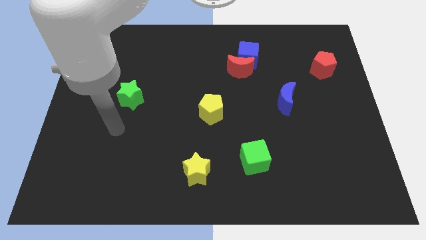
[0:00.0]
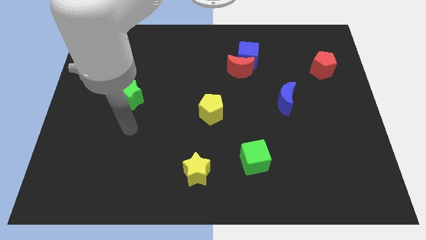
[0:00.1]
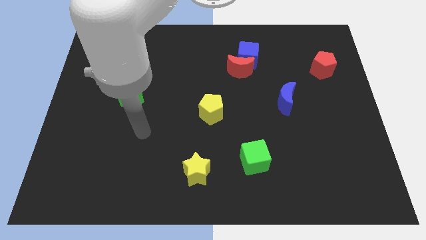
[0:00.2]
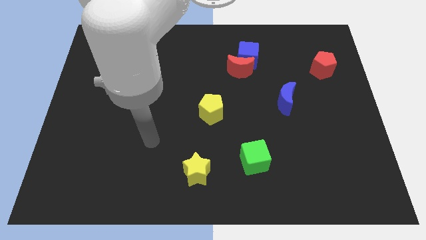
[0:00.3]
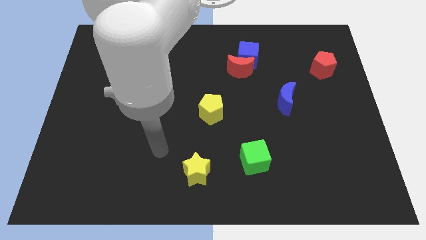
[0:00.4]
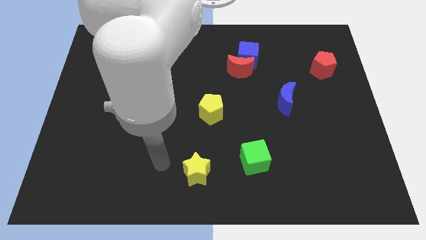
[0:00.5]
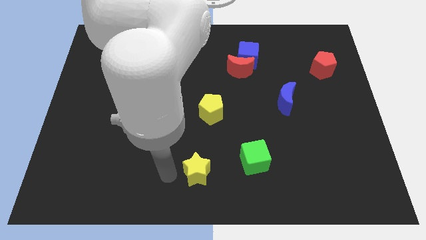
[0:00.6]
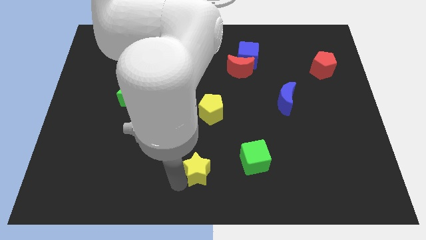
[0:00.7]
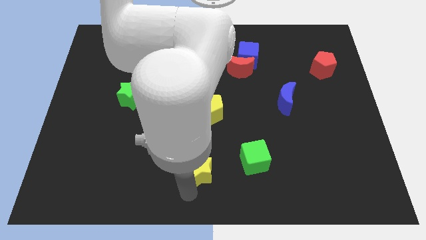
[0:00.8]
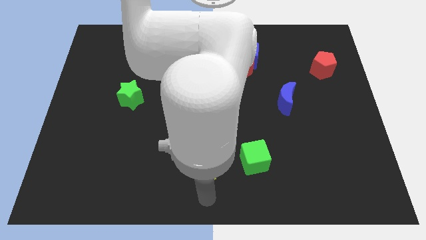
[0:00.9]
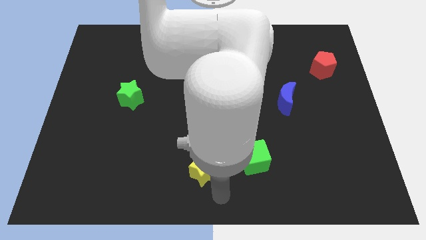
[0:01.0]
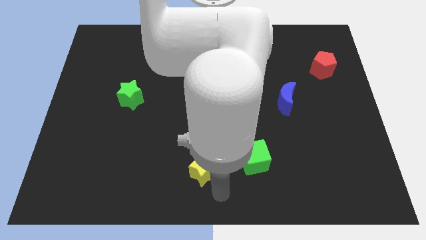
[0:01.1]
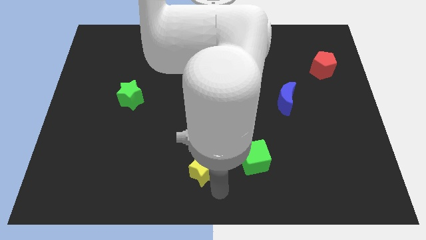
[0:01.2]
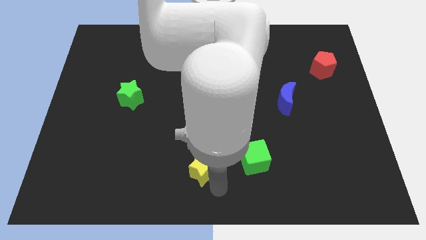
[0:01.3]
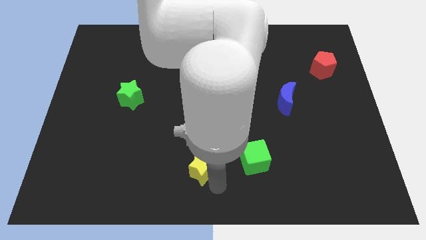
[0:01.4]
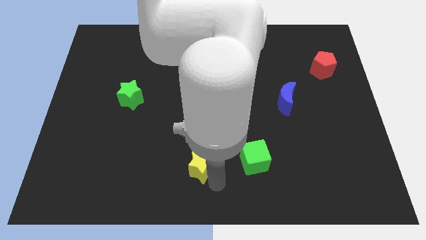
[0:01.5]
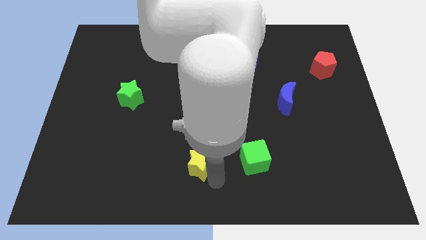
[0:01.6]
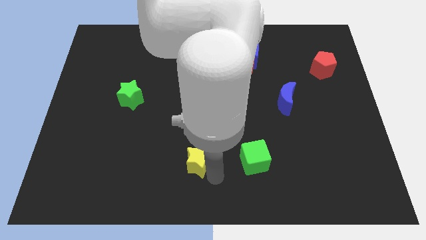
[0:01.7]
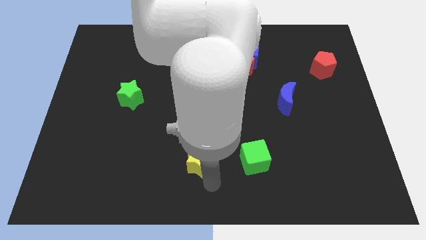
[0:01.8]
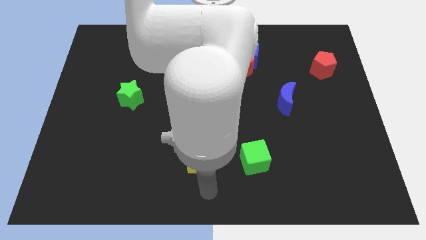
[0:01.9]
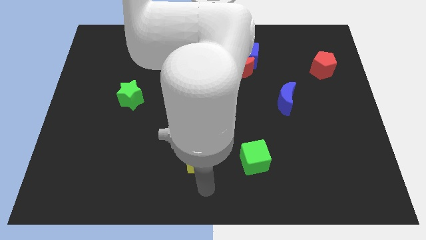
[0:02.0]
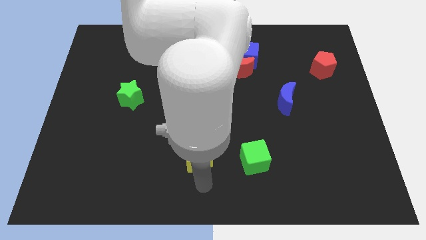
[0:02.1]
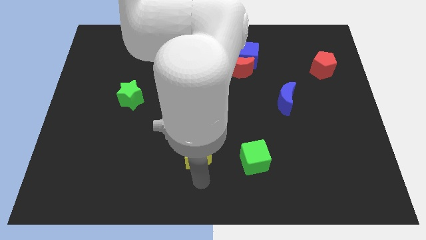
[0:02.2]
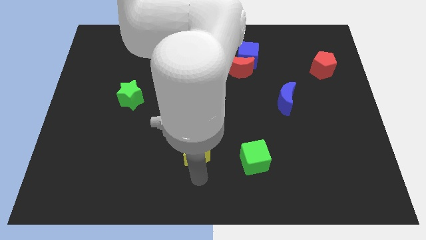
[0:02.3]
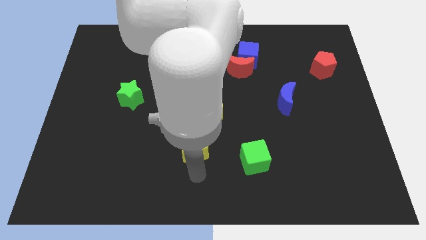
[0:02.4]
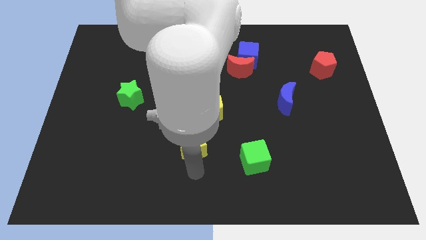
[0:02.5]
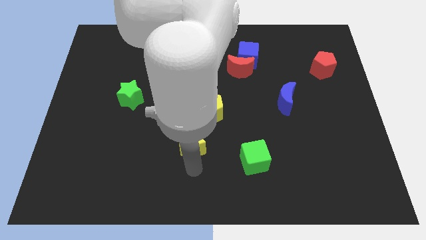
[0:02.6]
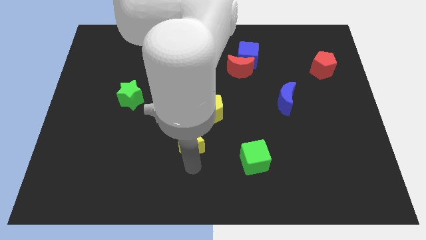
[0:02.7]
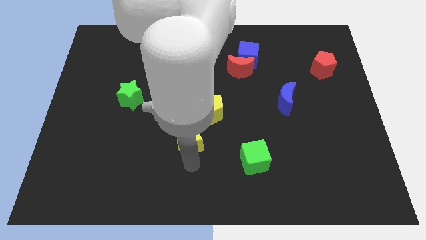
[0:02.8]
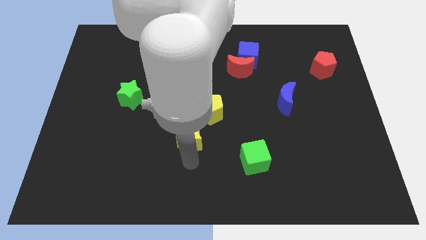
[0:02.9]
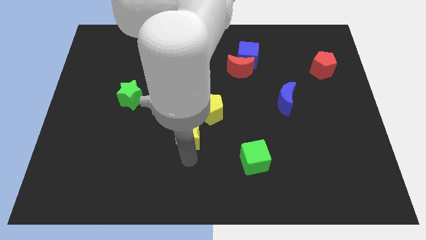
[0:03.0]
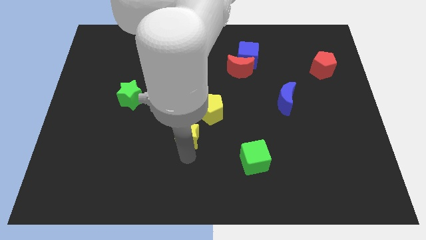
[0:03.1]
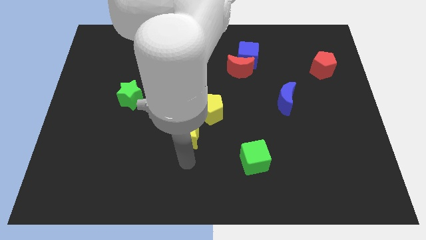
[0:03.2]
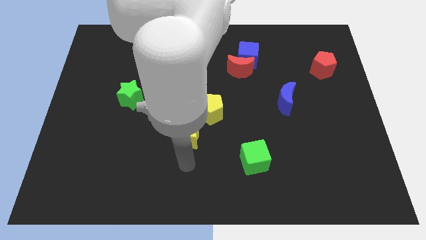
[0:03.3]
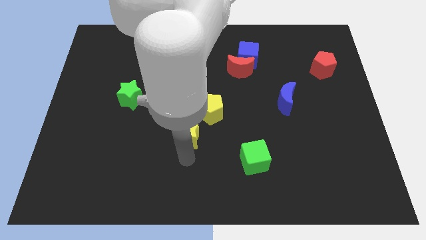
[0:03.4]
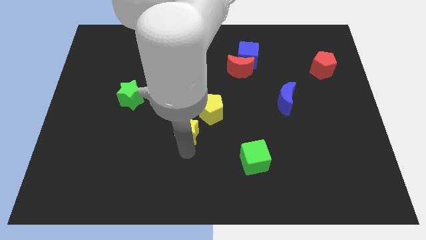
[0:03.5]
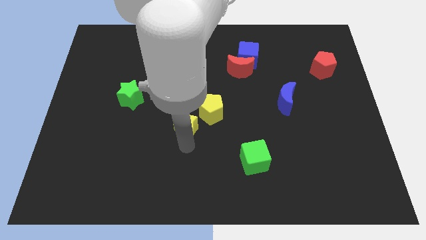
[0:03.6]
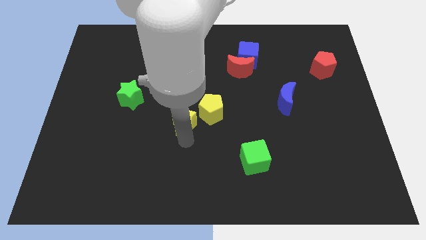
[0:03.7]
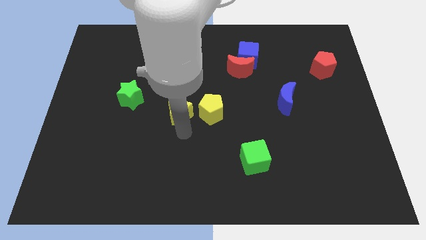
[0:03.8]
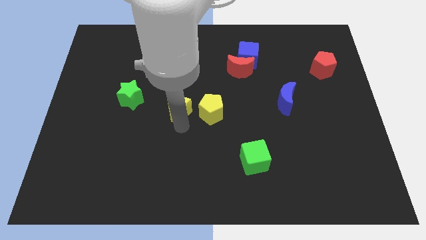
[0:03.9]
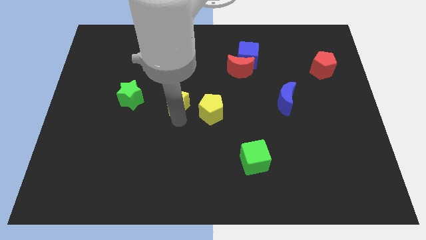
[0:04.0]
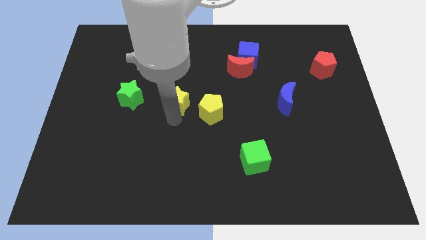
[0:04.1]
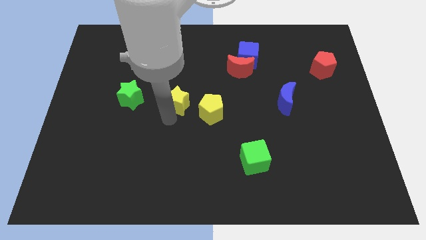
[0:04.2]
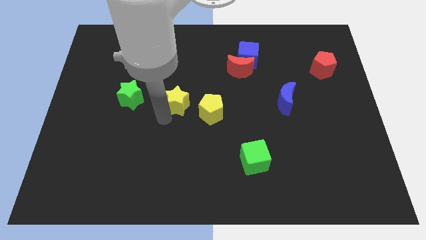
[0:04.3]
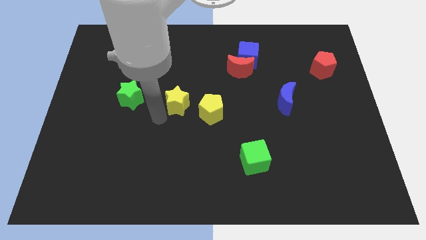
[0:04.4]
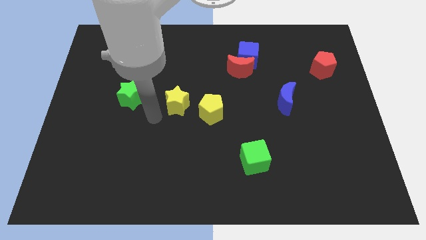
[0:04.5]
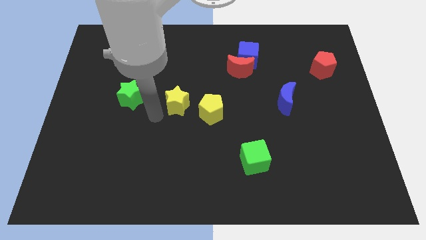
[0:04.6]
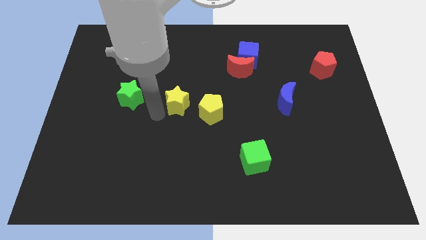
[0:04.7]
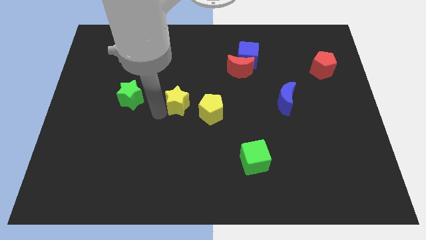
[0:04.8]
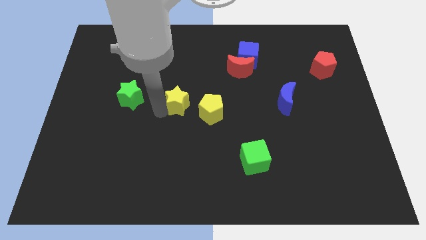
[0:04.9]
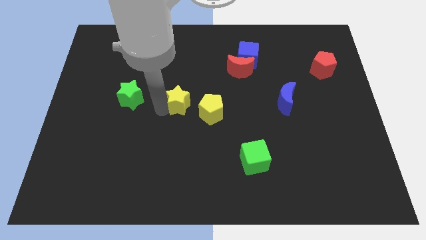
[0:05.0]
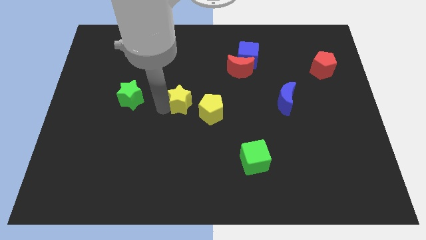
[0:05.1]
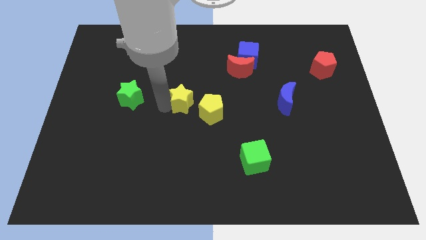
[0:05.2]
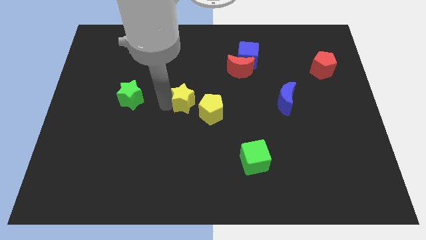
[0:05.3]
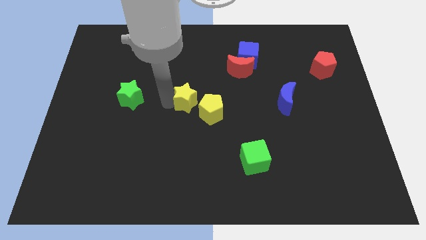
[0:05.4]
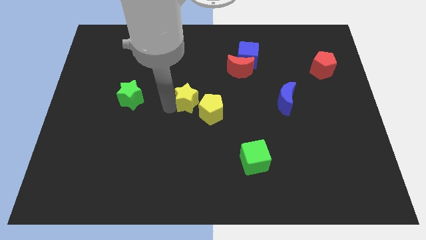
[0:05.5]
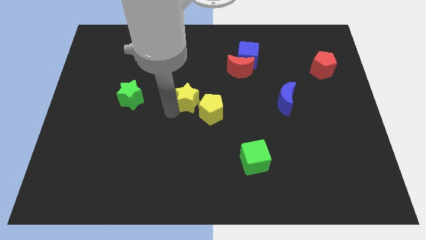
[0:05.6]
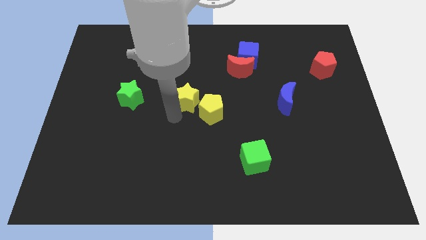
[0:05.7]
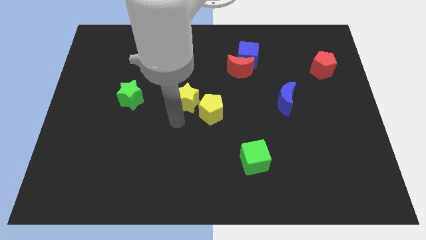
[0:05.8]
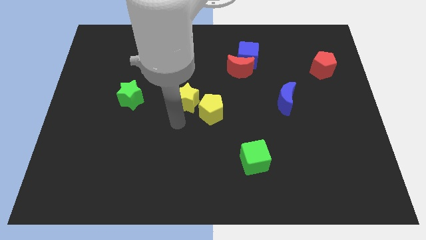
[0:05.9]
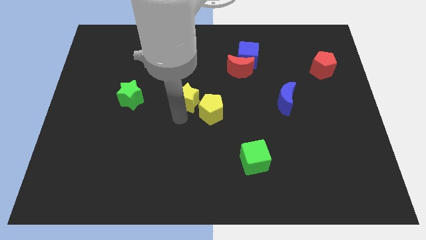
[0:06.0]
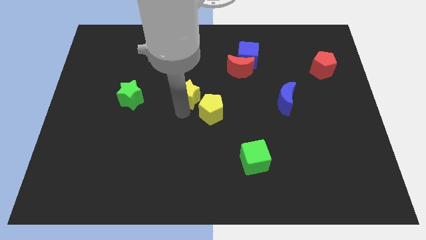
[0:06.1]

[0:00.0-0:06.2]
move the yellow star up

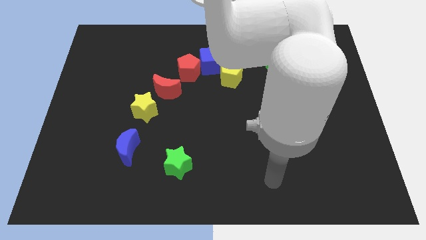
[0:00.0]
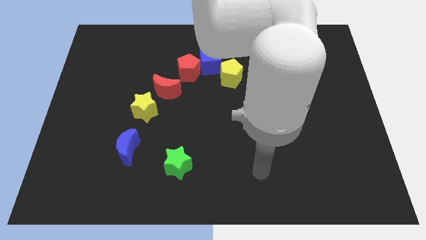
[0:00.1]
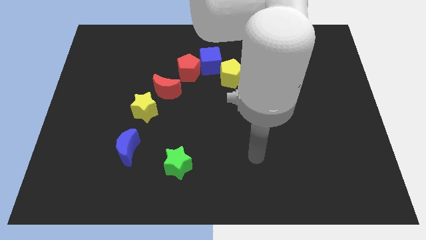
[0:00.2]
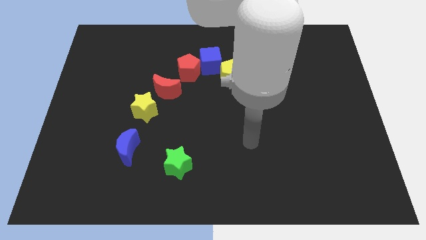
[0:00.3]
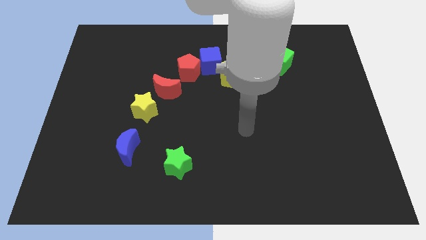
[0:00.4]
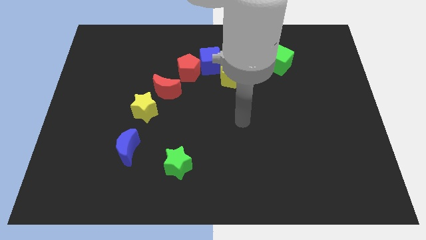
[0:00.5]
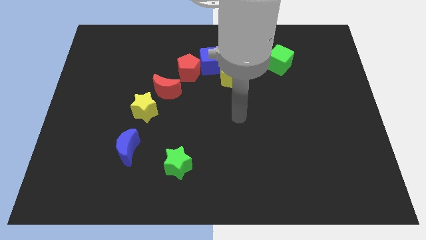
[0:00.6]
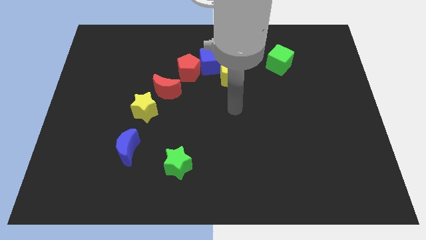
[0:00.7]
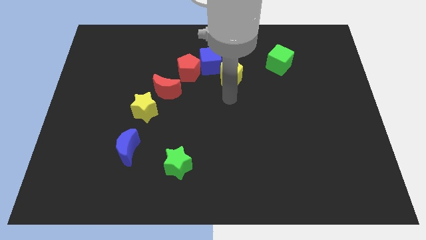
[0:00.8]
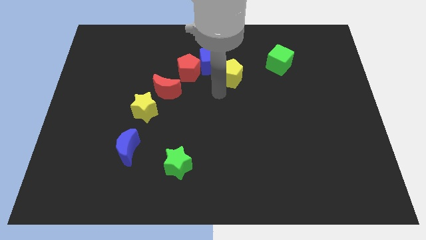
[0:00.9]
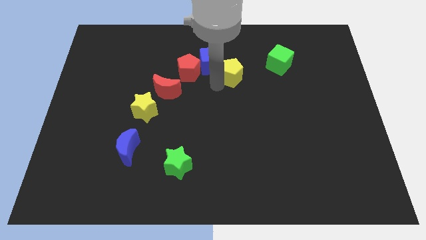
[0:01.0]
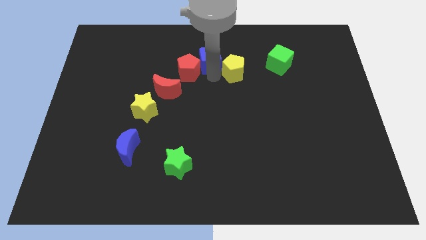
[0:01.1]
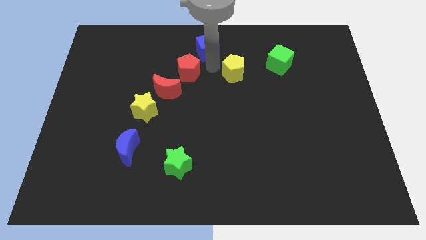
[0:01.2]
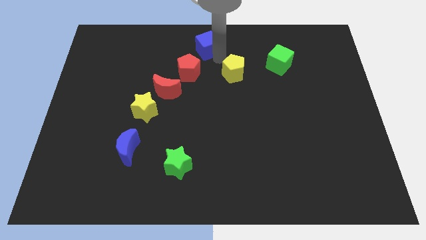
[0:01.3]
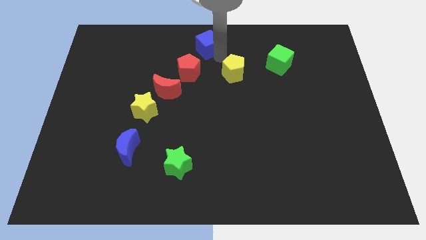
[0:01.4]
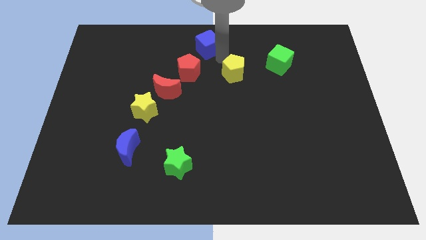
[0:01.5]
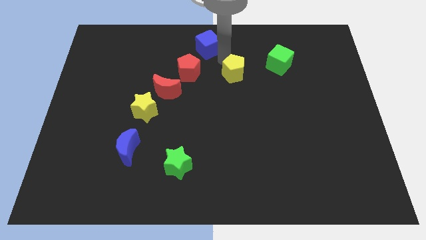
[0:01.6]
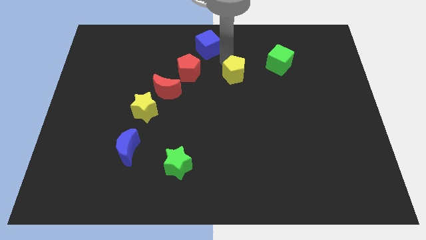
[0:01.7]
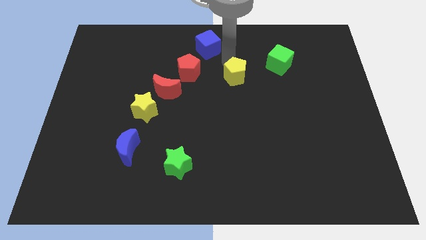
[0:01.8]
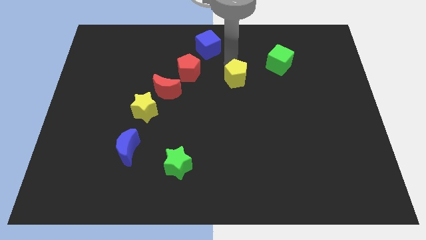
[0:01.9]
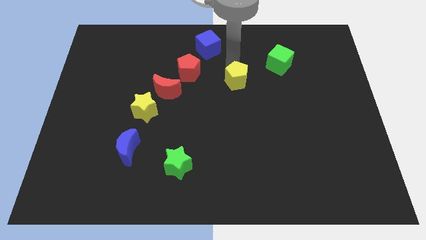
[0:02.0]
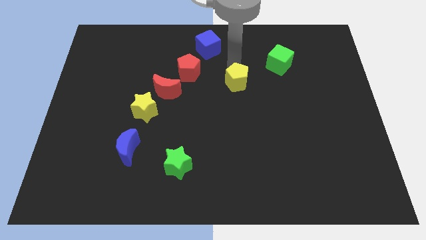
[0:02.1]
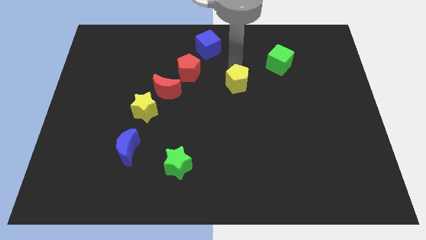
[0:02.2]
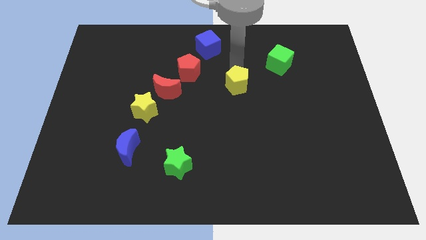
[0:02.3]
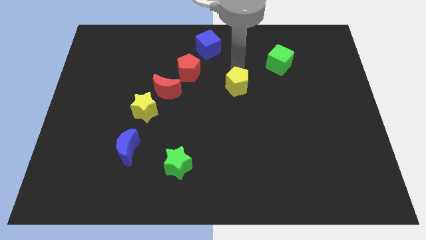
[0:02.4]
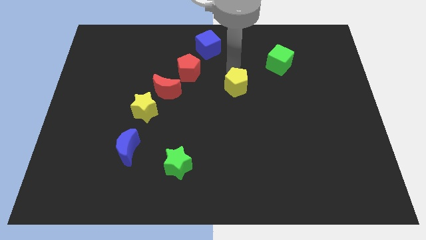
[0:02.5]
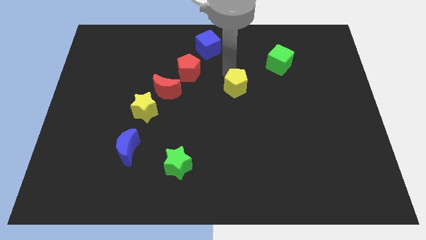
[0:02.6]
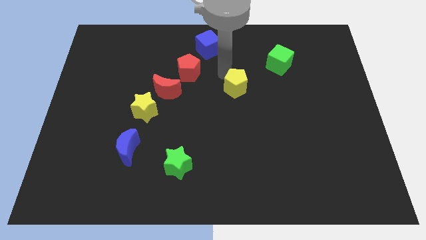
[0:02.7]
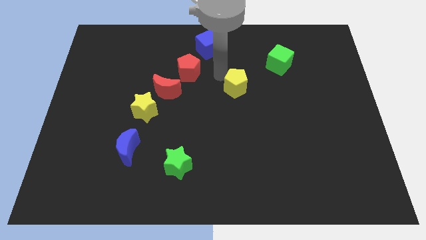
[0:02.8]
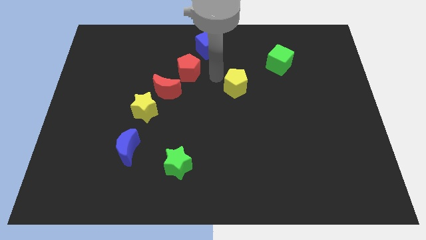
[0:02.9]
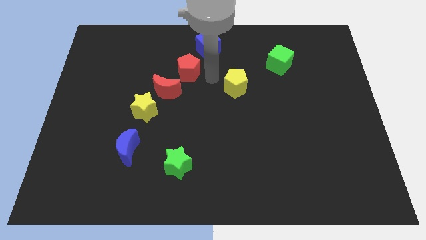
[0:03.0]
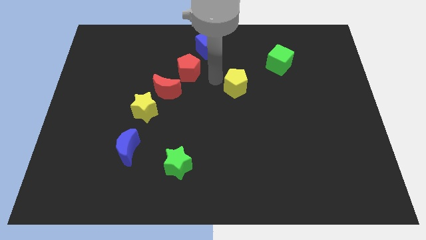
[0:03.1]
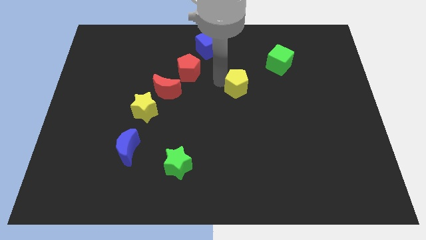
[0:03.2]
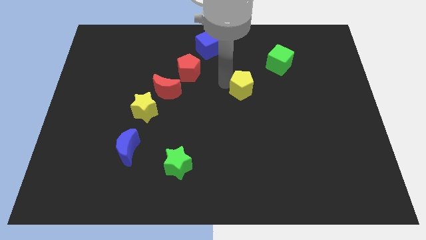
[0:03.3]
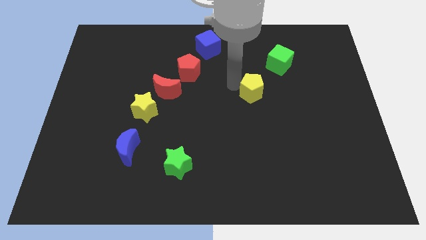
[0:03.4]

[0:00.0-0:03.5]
slide the yellow pentagon downwards and right diagonally a bit
